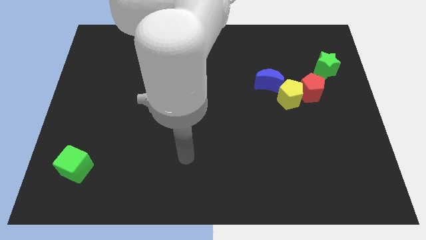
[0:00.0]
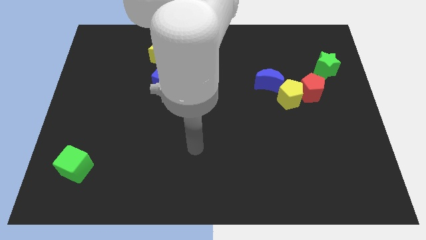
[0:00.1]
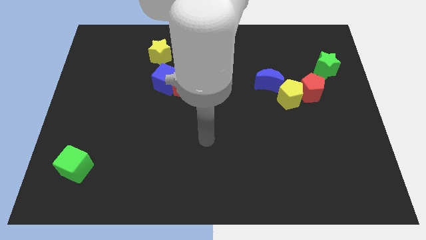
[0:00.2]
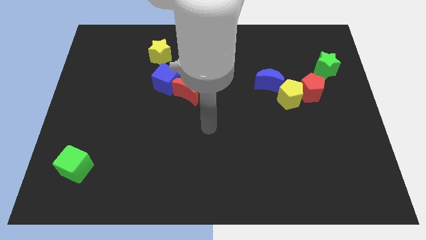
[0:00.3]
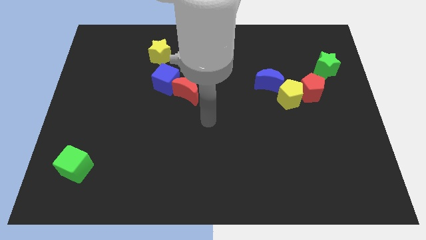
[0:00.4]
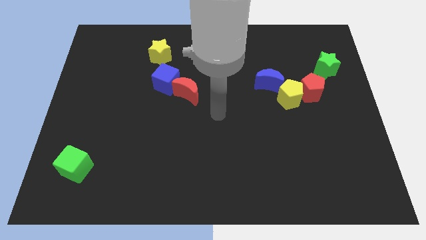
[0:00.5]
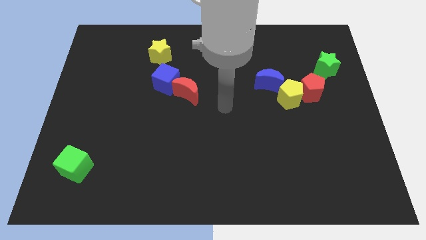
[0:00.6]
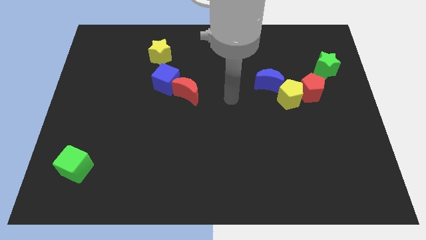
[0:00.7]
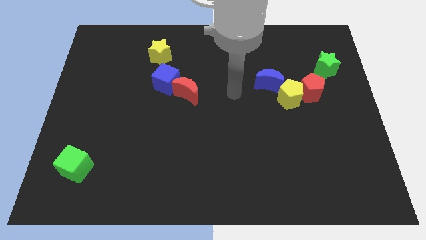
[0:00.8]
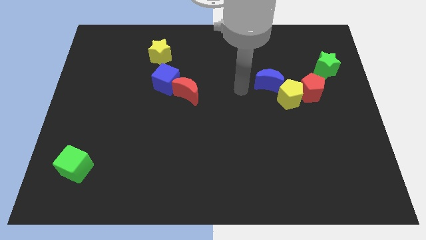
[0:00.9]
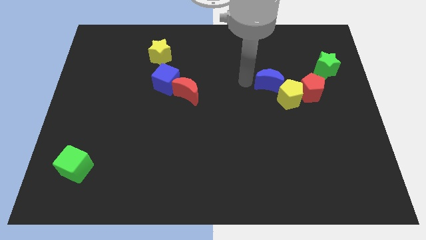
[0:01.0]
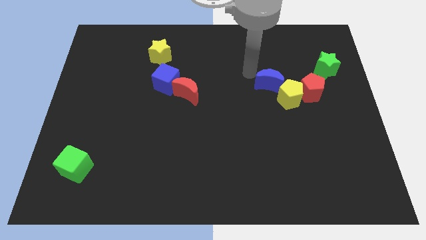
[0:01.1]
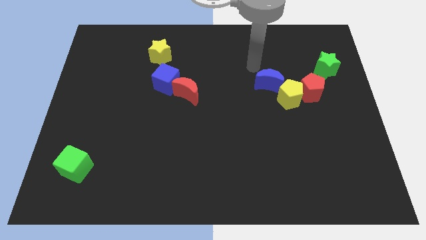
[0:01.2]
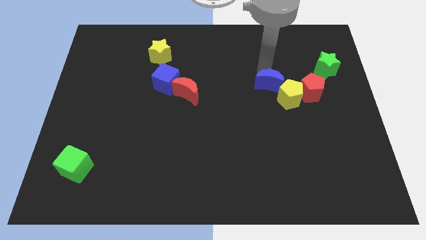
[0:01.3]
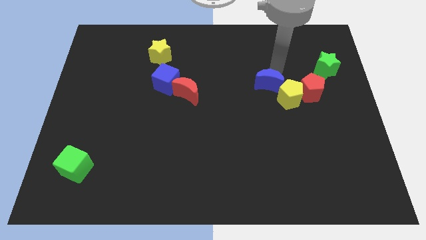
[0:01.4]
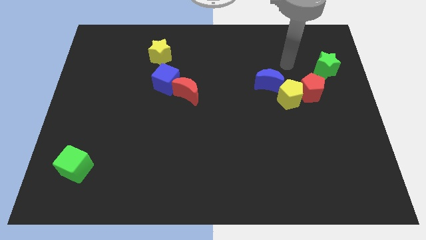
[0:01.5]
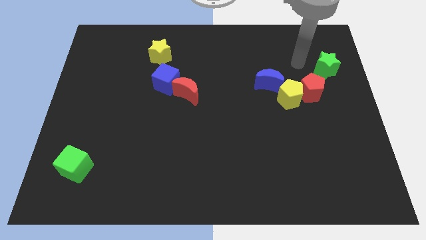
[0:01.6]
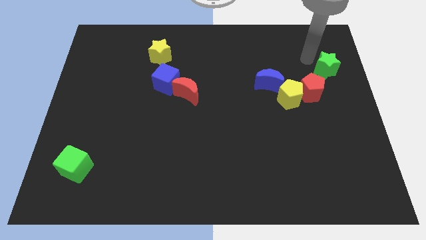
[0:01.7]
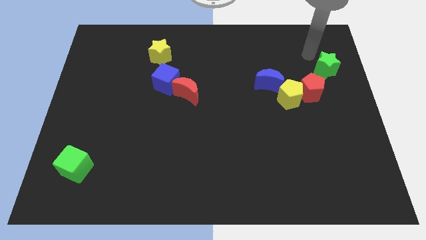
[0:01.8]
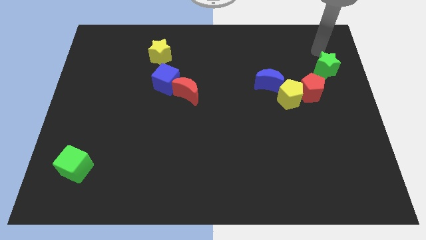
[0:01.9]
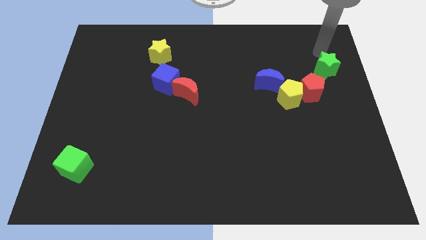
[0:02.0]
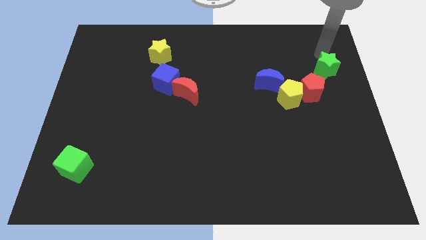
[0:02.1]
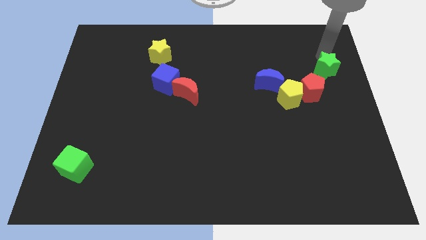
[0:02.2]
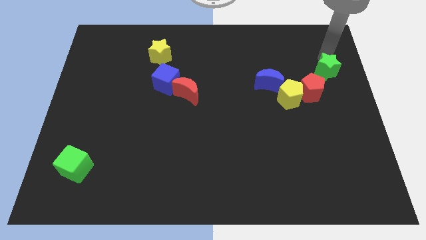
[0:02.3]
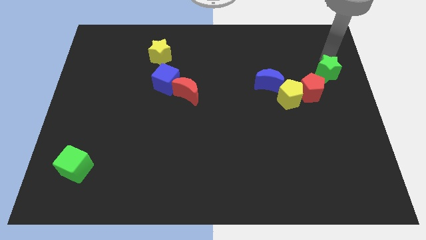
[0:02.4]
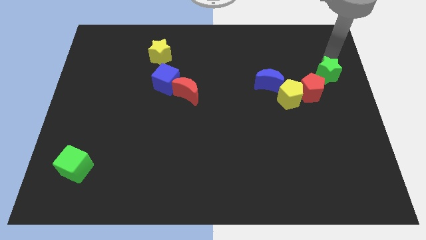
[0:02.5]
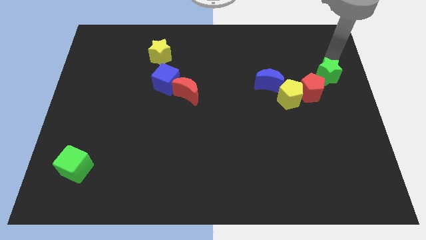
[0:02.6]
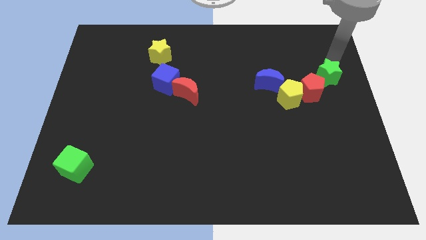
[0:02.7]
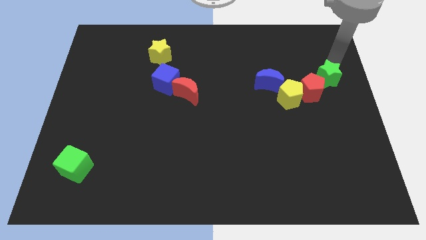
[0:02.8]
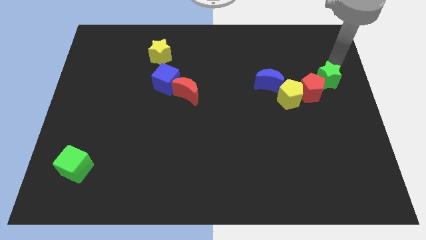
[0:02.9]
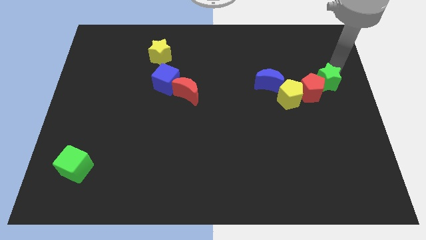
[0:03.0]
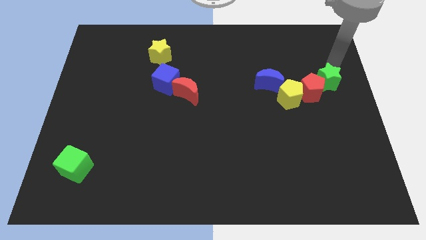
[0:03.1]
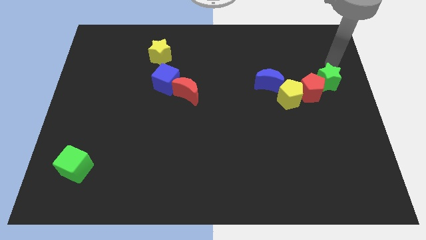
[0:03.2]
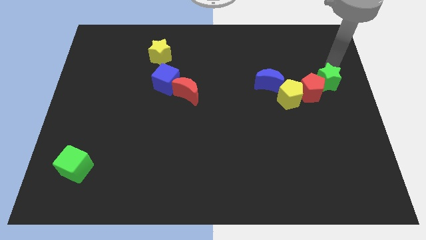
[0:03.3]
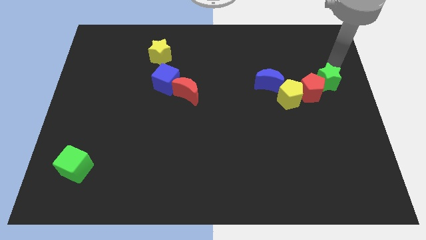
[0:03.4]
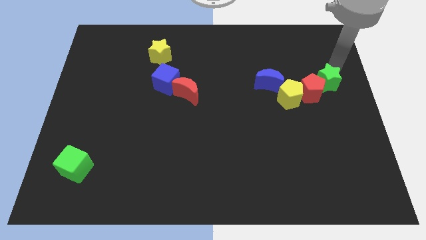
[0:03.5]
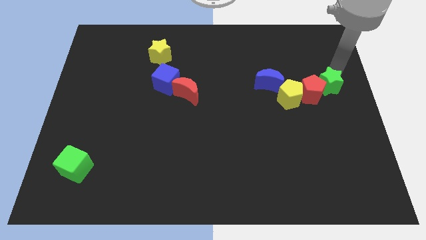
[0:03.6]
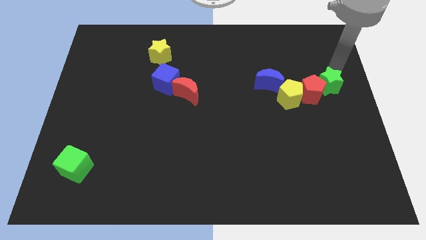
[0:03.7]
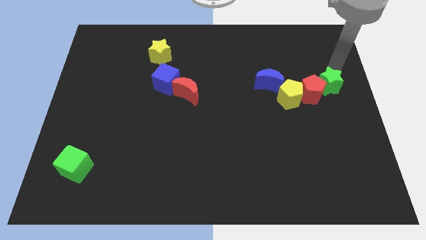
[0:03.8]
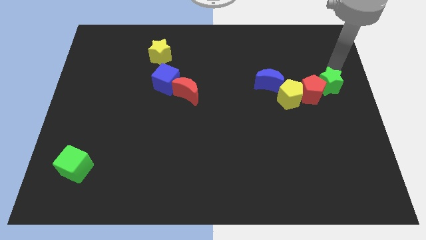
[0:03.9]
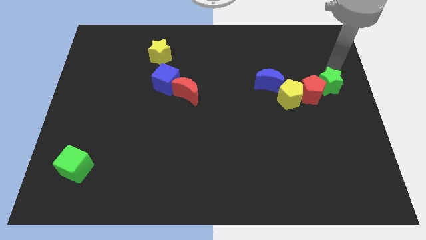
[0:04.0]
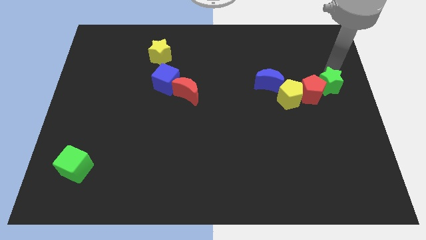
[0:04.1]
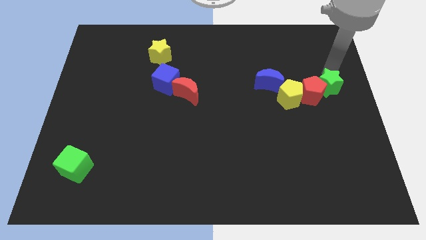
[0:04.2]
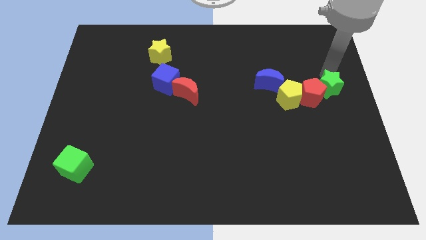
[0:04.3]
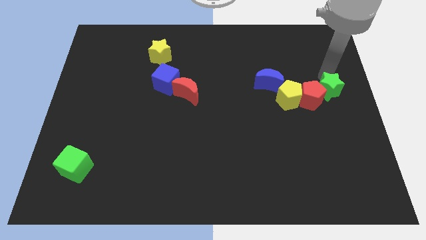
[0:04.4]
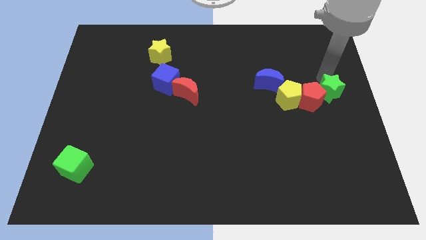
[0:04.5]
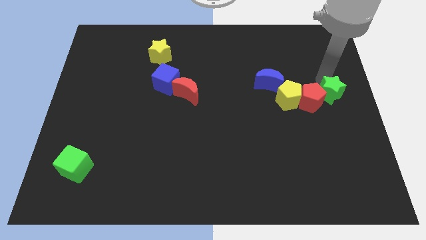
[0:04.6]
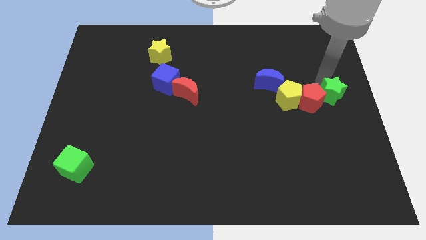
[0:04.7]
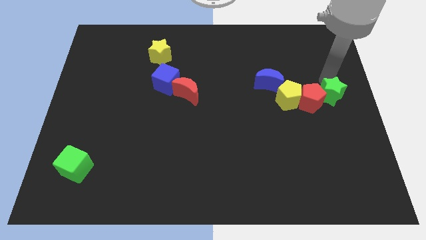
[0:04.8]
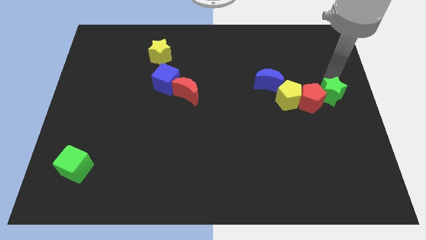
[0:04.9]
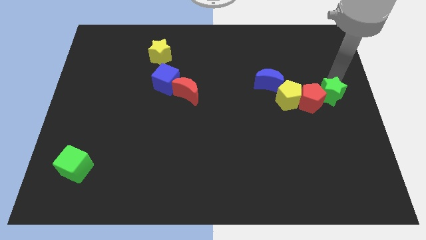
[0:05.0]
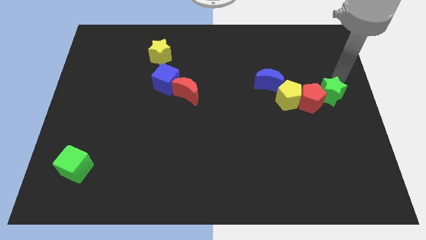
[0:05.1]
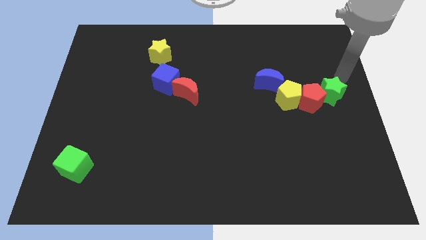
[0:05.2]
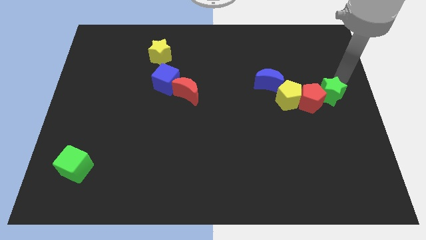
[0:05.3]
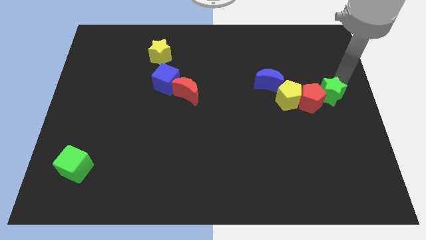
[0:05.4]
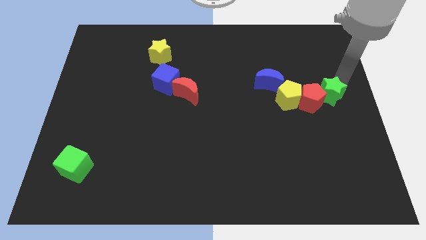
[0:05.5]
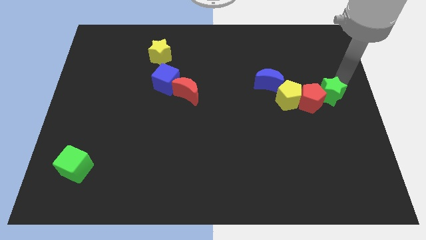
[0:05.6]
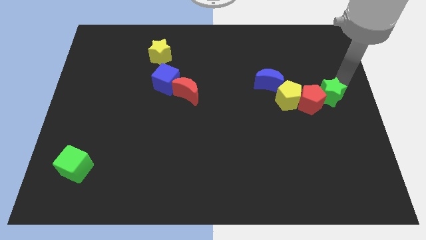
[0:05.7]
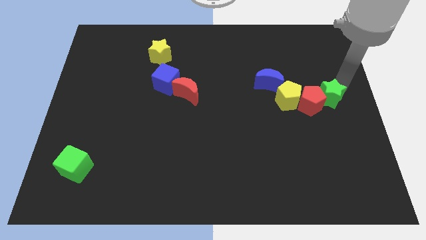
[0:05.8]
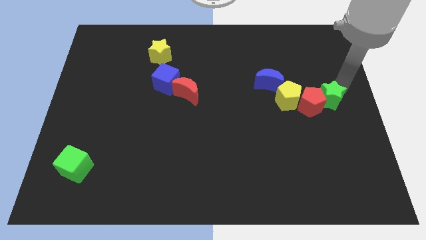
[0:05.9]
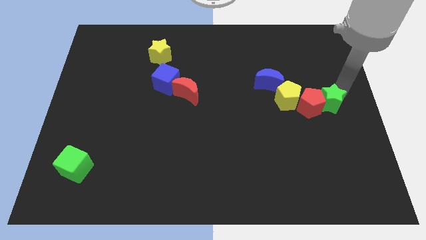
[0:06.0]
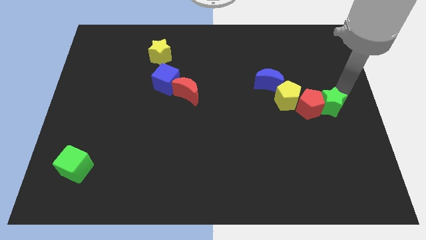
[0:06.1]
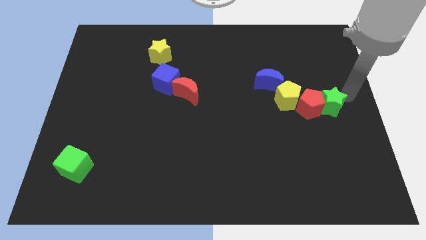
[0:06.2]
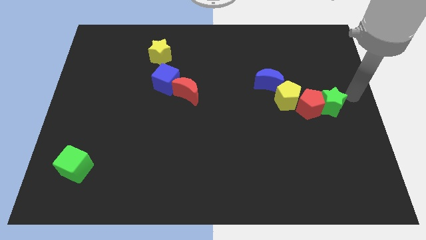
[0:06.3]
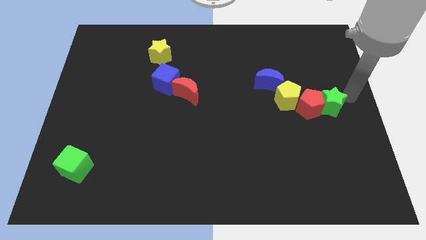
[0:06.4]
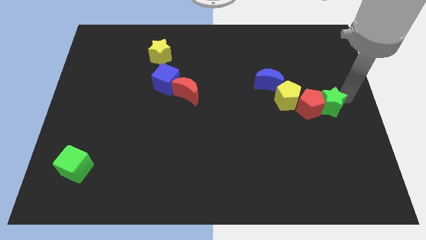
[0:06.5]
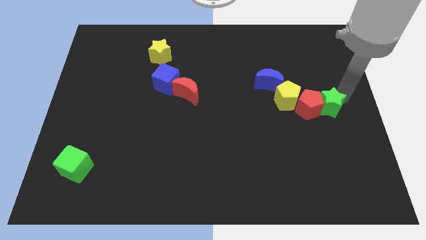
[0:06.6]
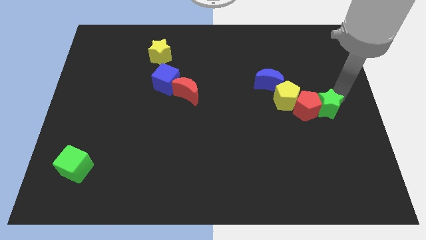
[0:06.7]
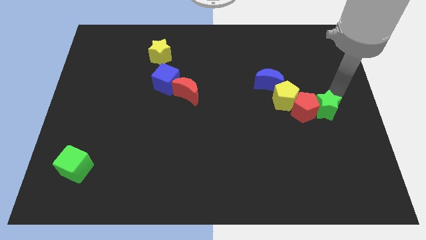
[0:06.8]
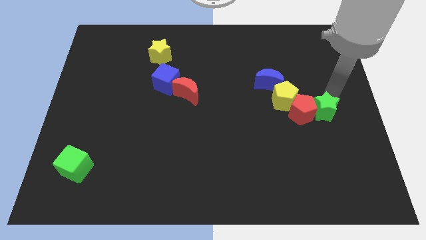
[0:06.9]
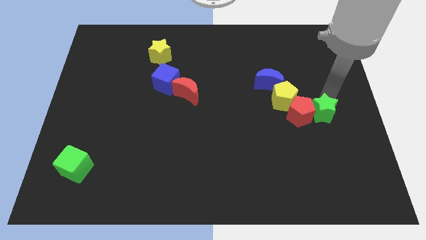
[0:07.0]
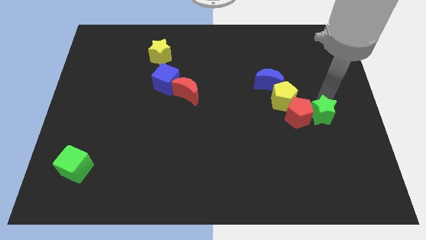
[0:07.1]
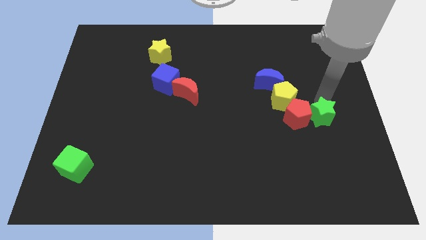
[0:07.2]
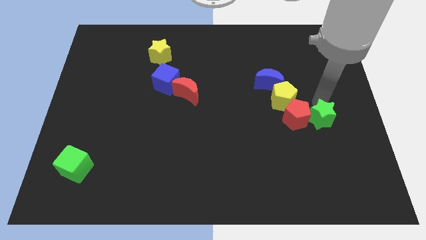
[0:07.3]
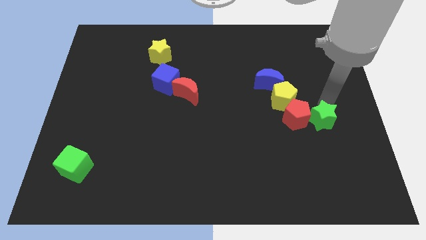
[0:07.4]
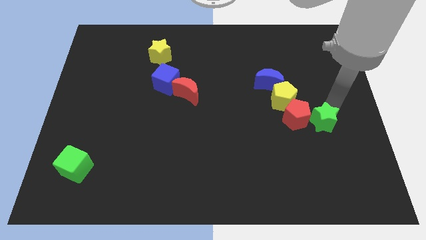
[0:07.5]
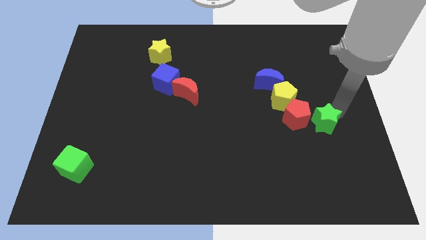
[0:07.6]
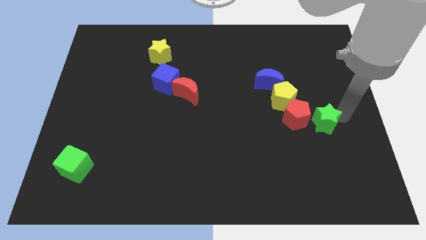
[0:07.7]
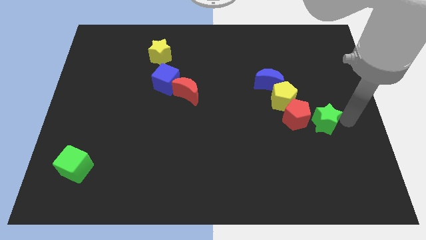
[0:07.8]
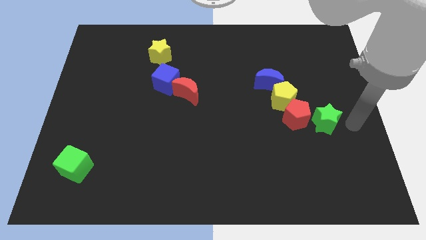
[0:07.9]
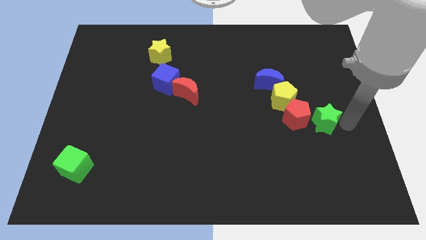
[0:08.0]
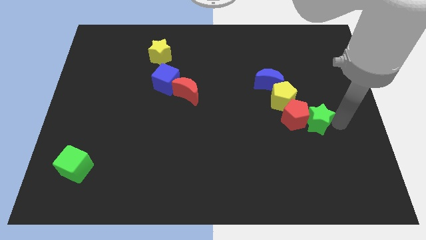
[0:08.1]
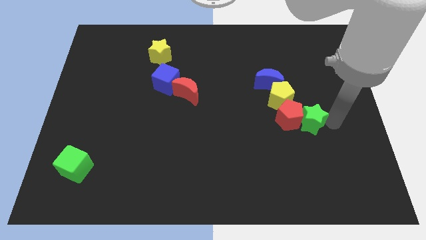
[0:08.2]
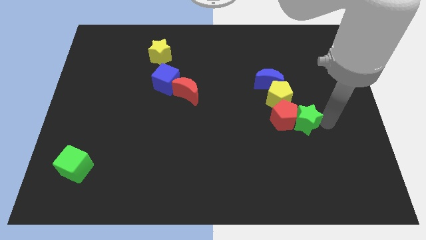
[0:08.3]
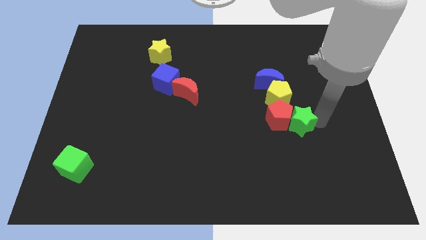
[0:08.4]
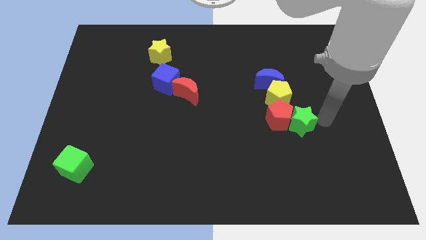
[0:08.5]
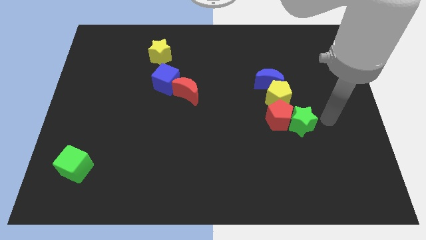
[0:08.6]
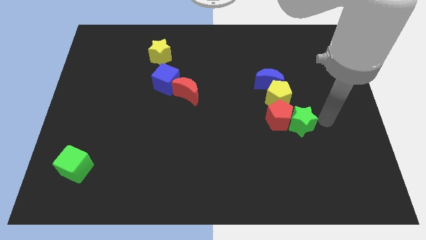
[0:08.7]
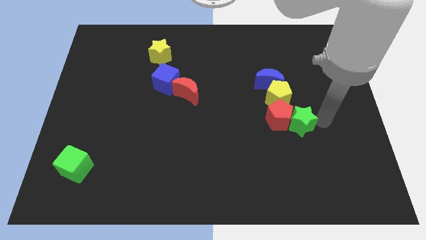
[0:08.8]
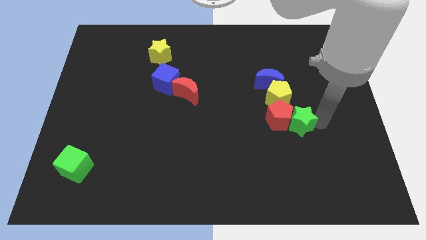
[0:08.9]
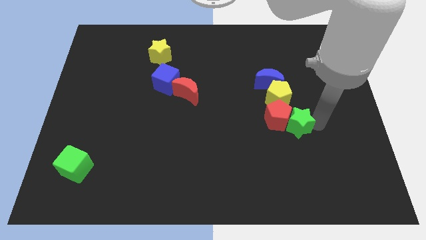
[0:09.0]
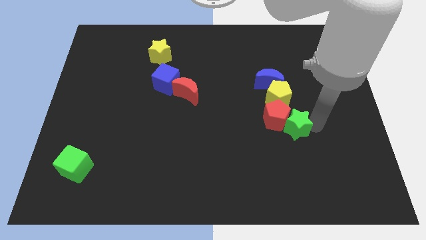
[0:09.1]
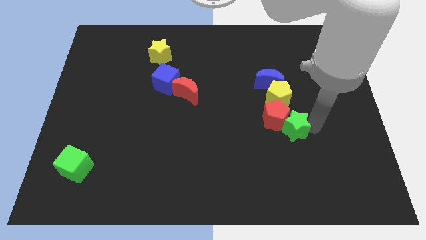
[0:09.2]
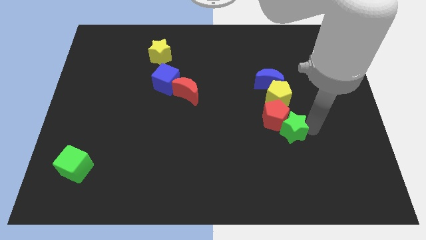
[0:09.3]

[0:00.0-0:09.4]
move the green star downwards and then to the left
